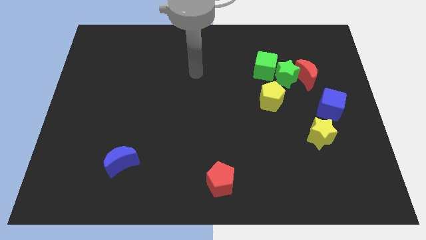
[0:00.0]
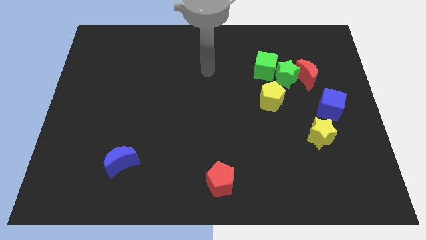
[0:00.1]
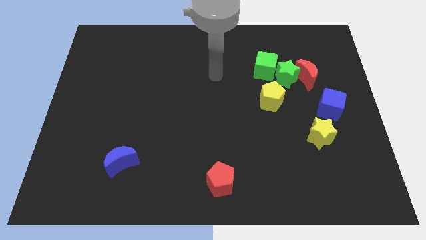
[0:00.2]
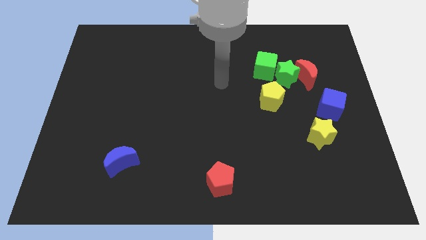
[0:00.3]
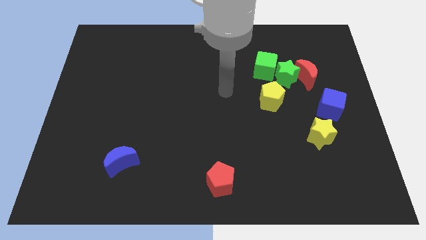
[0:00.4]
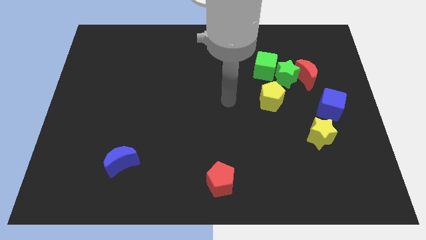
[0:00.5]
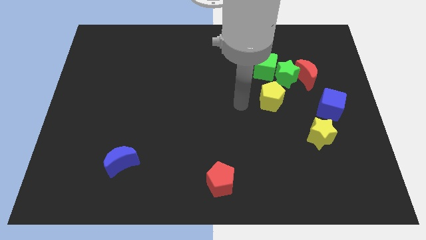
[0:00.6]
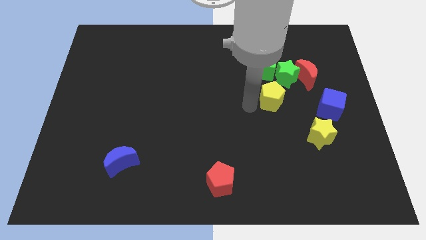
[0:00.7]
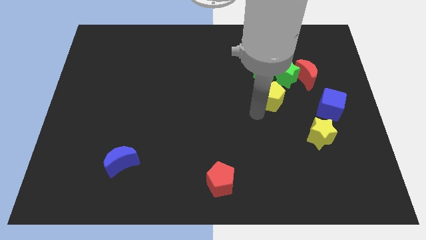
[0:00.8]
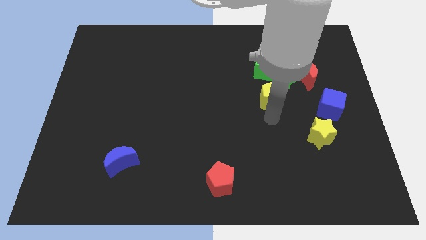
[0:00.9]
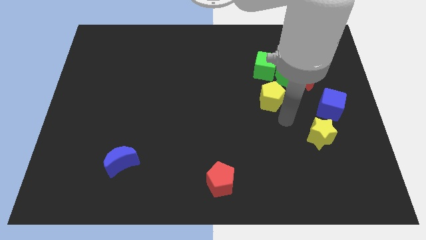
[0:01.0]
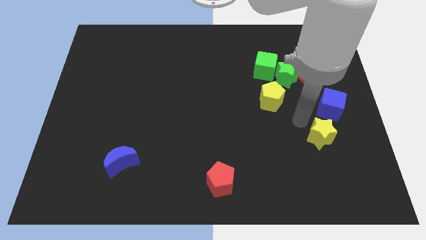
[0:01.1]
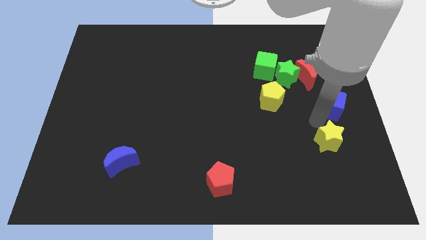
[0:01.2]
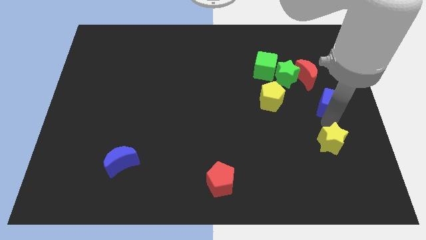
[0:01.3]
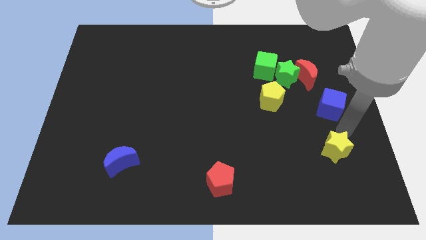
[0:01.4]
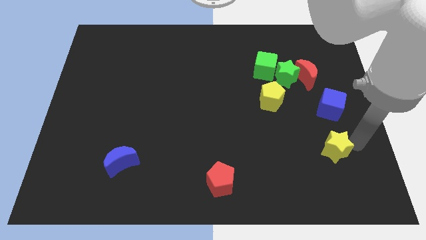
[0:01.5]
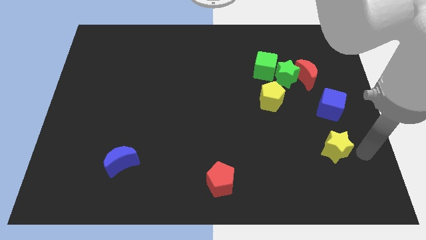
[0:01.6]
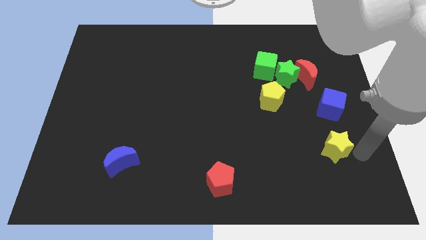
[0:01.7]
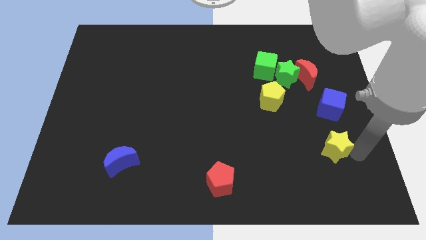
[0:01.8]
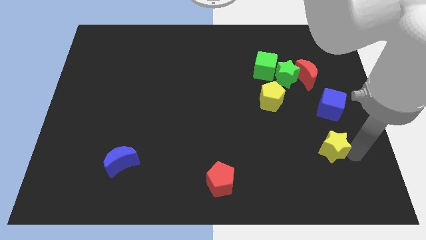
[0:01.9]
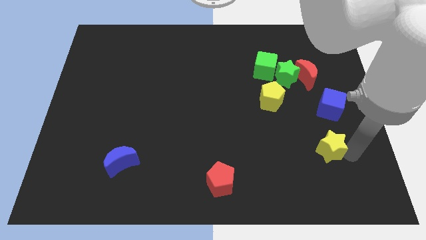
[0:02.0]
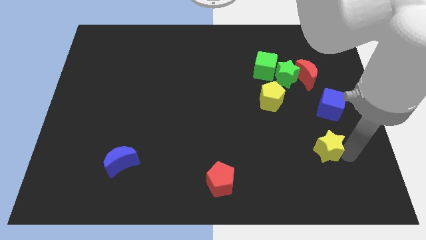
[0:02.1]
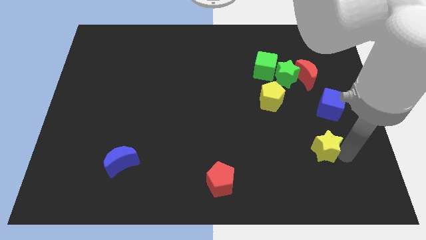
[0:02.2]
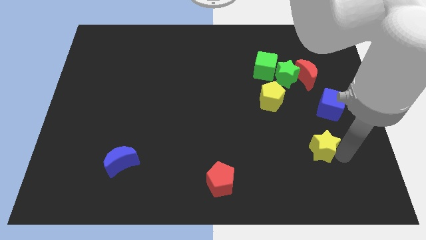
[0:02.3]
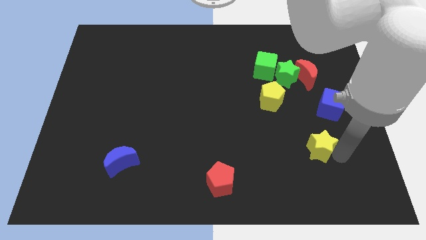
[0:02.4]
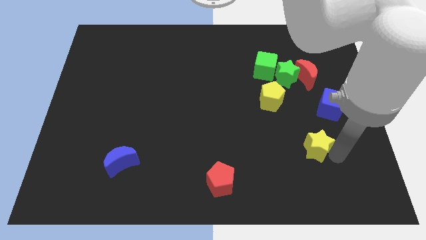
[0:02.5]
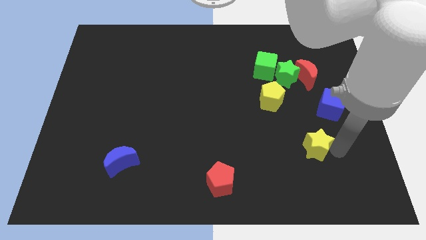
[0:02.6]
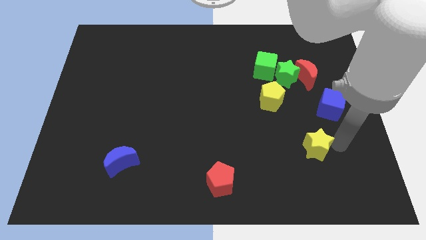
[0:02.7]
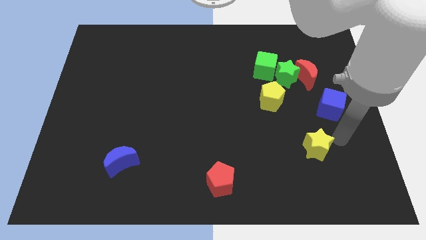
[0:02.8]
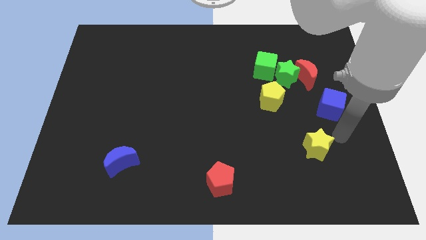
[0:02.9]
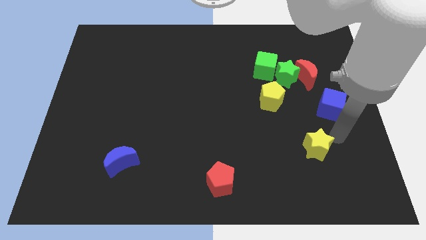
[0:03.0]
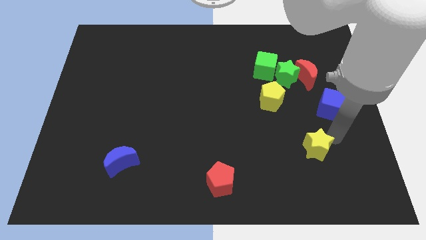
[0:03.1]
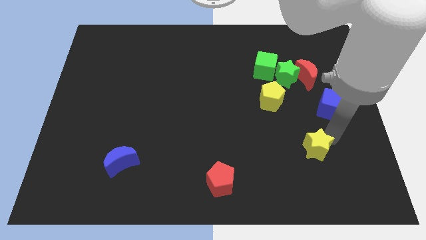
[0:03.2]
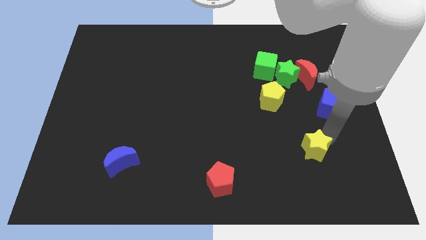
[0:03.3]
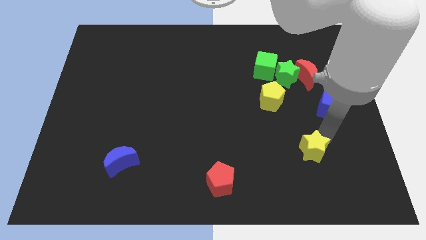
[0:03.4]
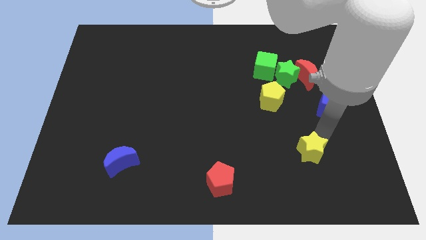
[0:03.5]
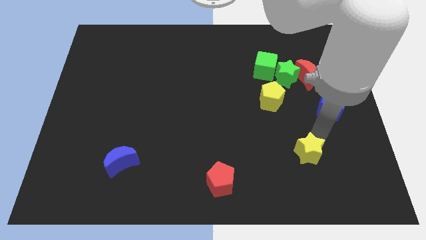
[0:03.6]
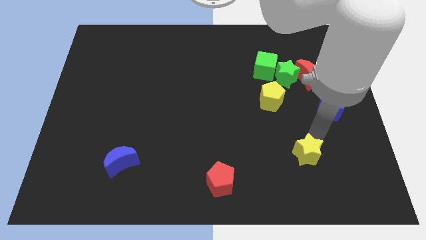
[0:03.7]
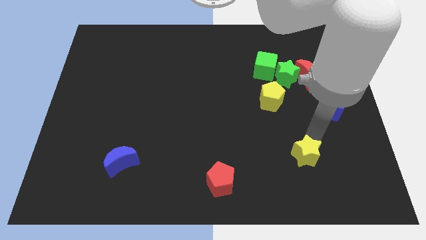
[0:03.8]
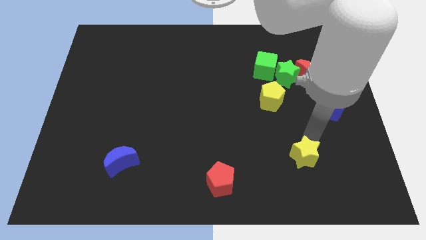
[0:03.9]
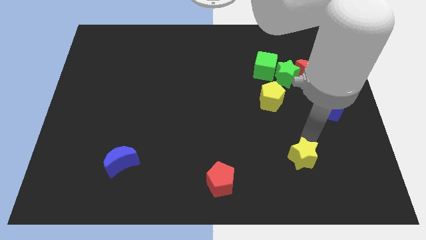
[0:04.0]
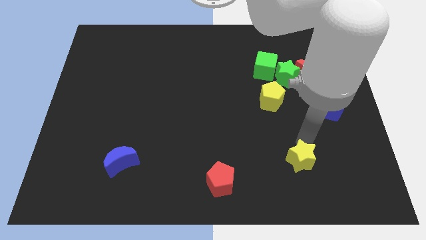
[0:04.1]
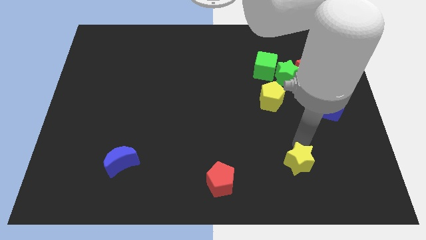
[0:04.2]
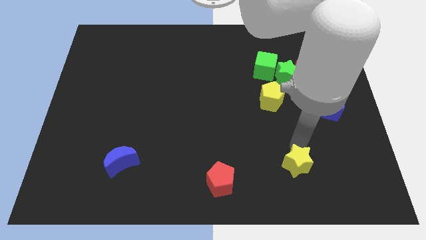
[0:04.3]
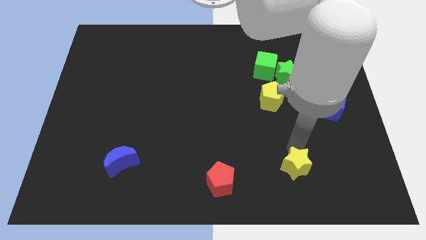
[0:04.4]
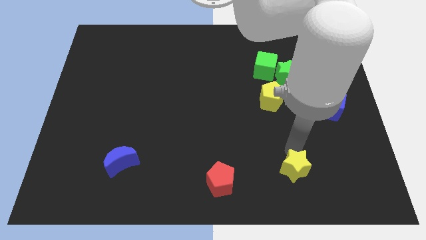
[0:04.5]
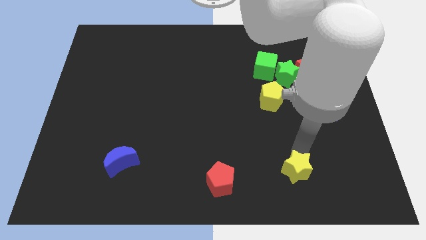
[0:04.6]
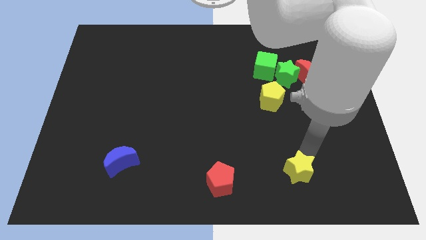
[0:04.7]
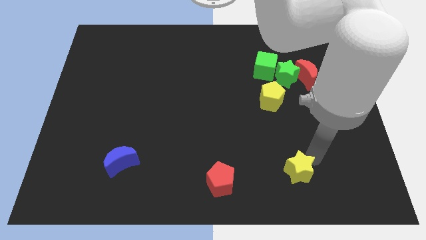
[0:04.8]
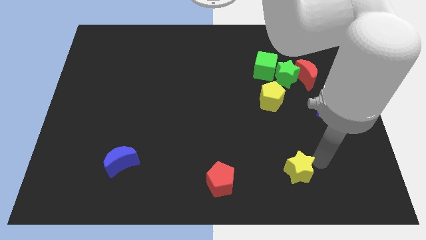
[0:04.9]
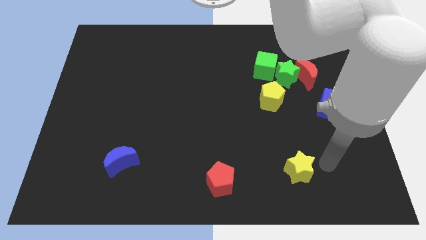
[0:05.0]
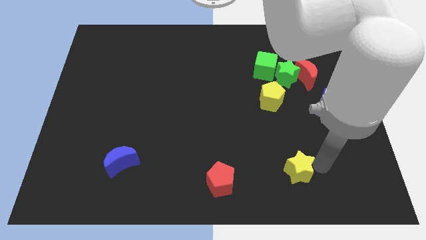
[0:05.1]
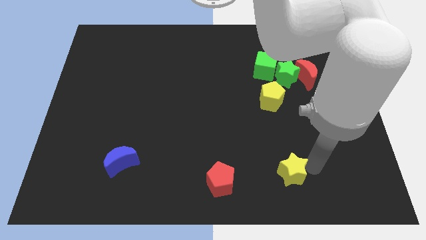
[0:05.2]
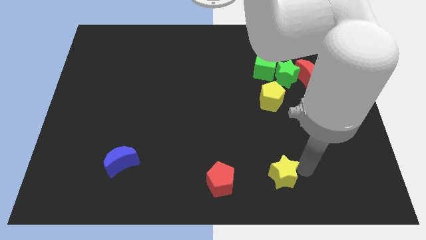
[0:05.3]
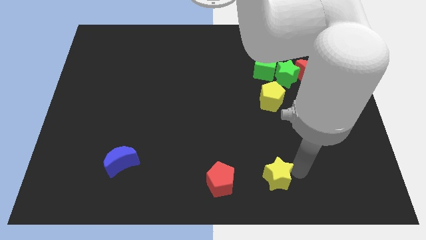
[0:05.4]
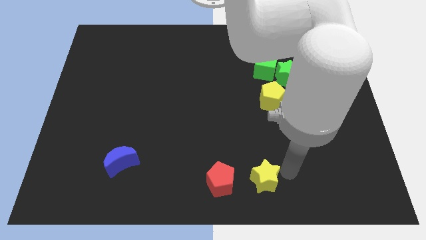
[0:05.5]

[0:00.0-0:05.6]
push the yellow star to the bottom side

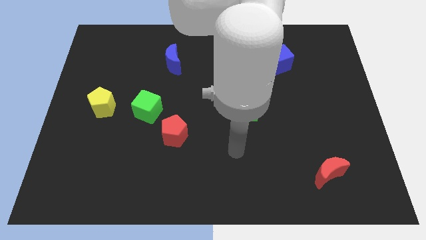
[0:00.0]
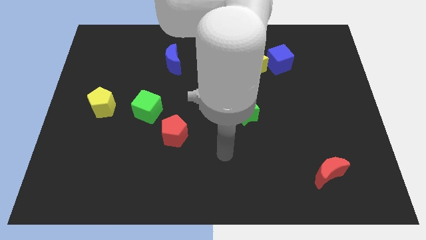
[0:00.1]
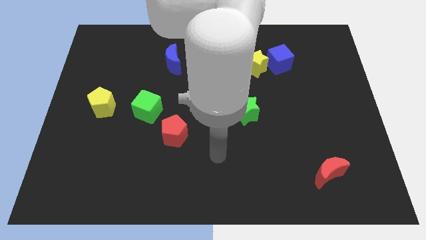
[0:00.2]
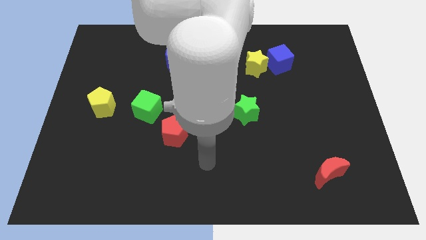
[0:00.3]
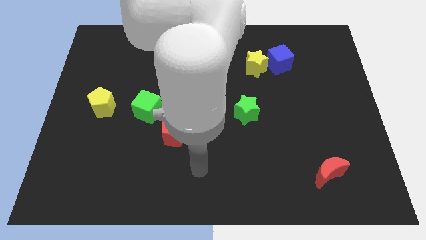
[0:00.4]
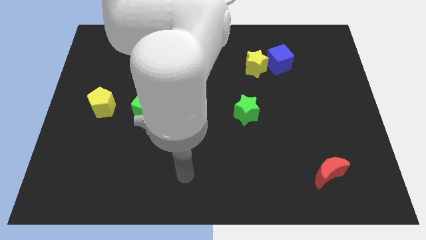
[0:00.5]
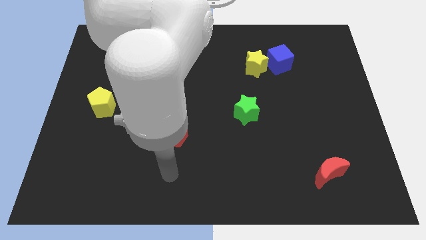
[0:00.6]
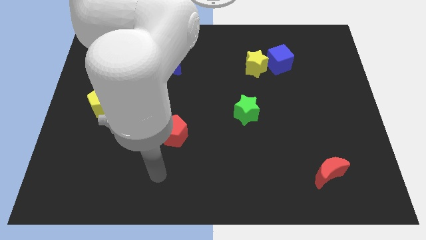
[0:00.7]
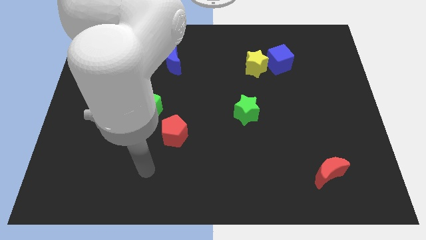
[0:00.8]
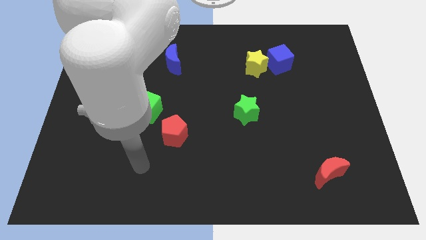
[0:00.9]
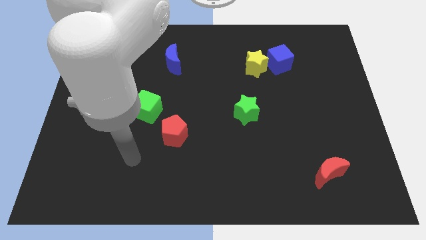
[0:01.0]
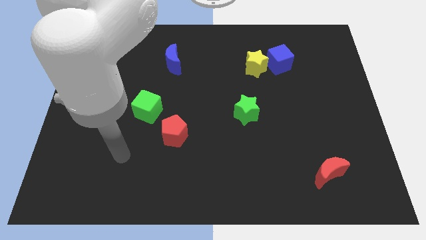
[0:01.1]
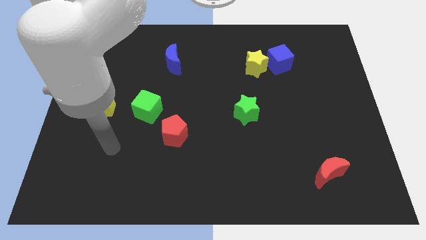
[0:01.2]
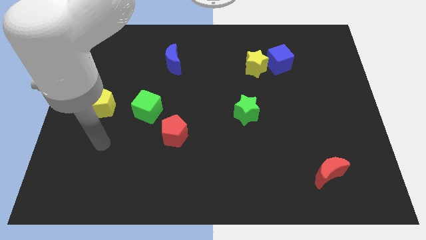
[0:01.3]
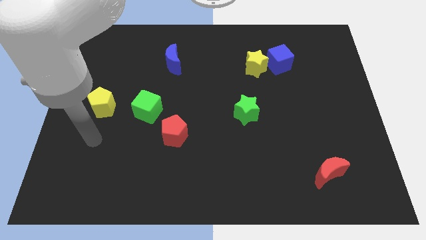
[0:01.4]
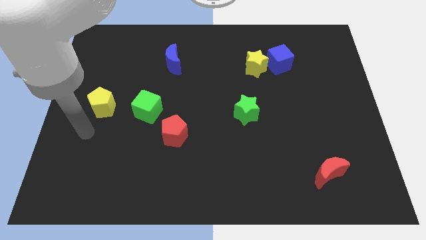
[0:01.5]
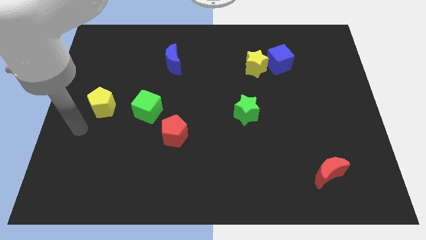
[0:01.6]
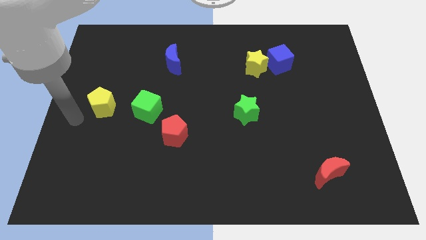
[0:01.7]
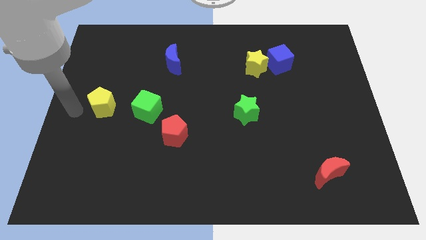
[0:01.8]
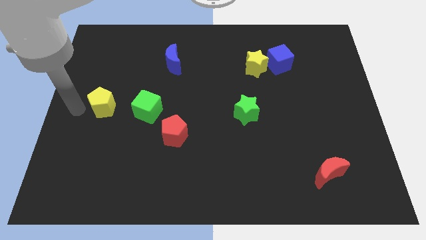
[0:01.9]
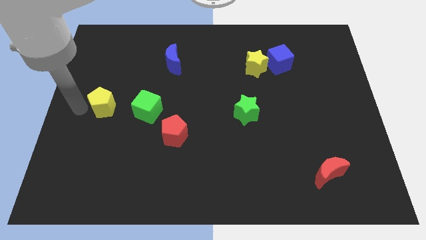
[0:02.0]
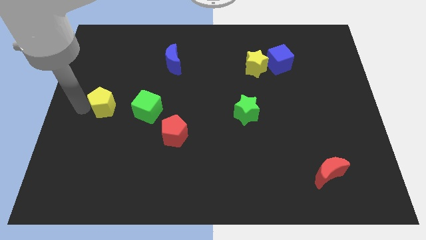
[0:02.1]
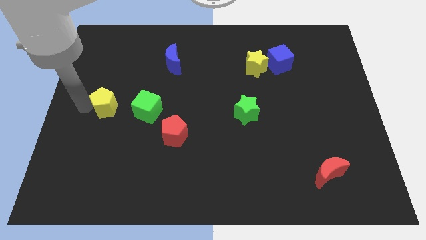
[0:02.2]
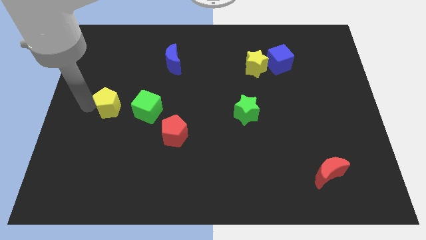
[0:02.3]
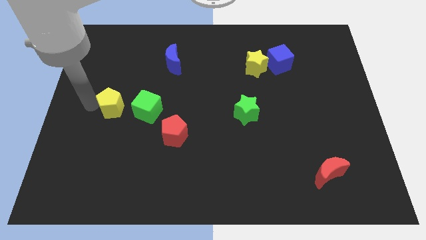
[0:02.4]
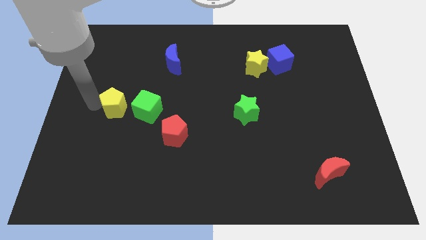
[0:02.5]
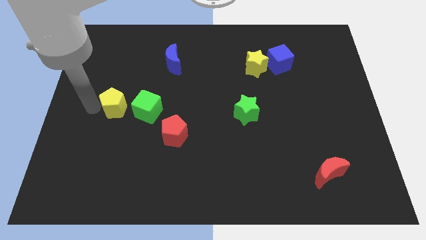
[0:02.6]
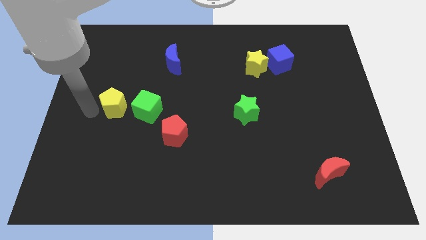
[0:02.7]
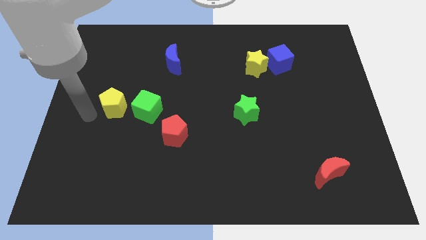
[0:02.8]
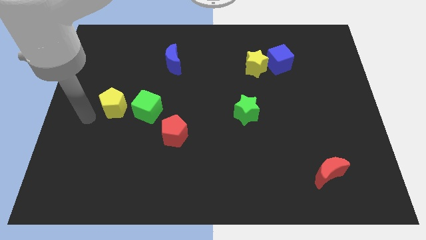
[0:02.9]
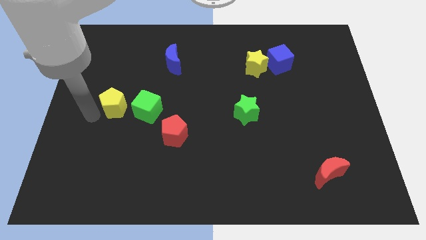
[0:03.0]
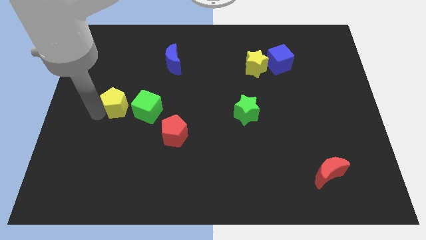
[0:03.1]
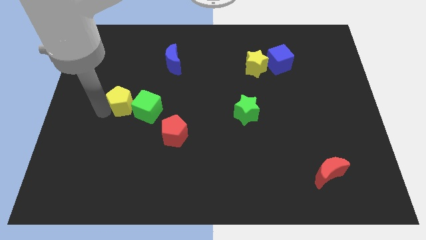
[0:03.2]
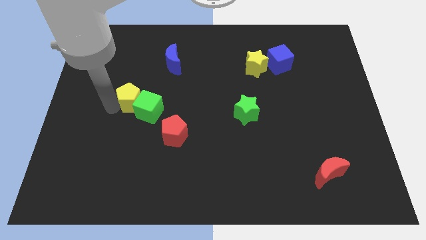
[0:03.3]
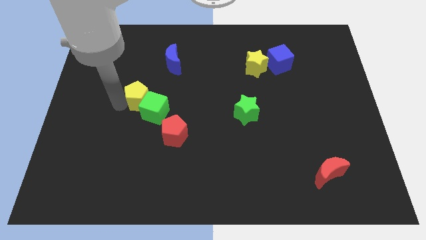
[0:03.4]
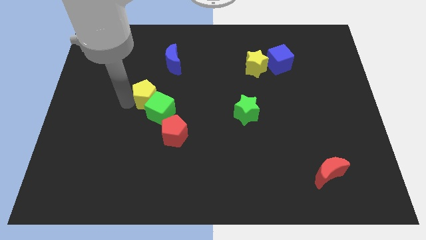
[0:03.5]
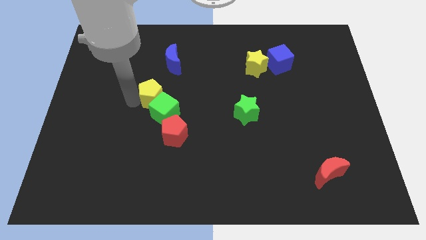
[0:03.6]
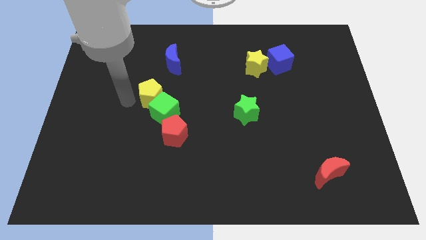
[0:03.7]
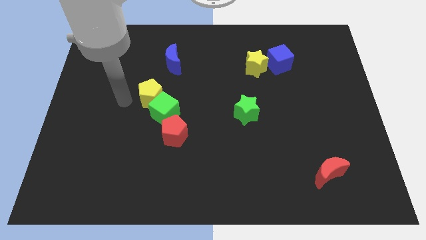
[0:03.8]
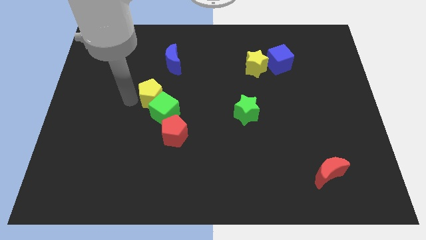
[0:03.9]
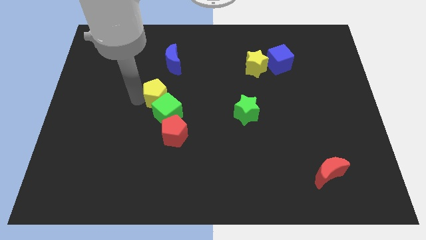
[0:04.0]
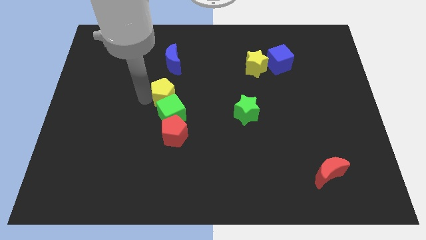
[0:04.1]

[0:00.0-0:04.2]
push the yellow pentagon to the center of the board
